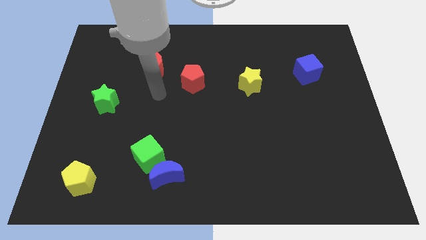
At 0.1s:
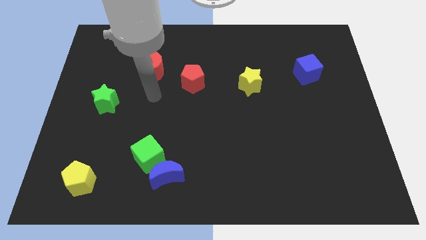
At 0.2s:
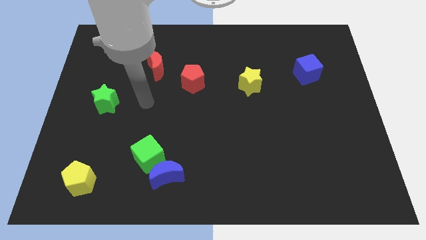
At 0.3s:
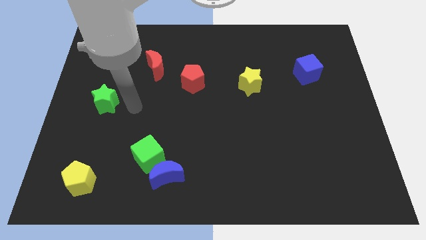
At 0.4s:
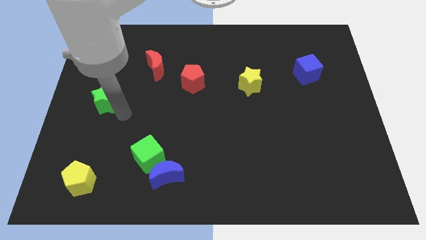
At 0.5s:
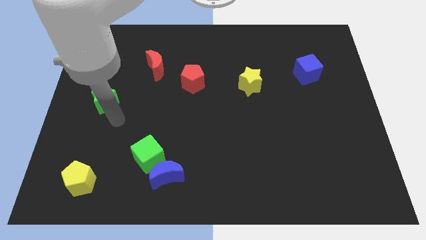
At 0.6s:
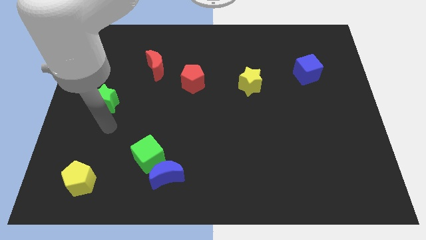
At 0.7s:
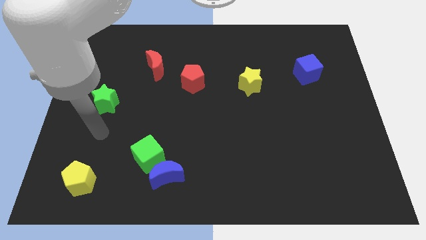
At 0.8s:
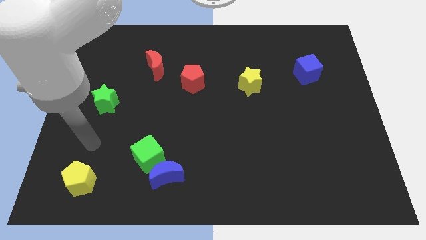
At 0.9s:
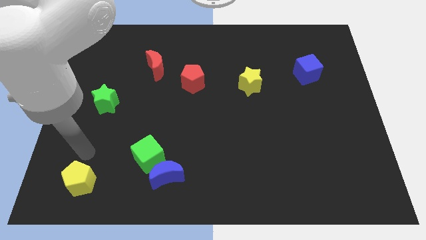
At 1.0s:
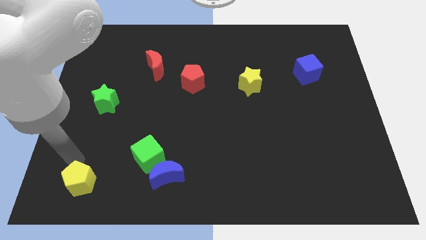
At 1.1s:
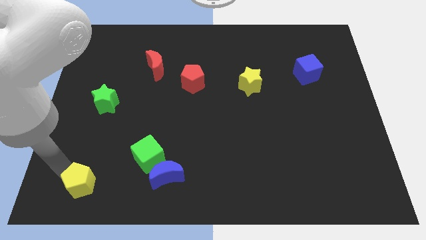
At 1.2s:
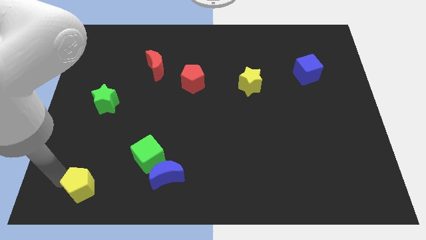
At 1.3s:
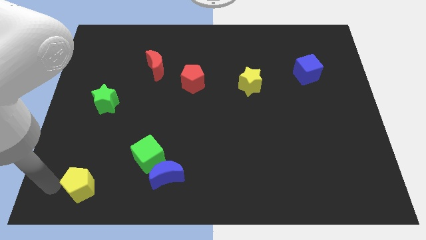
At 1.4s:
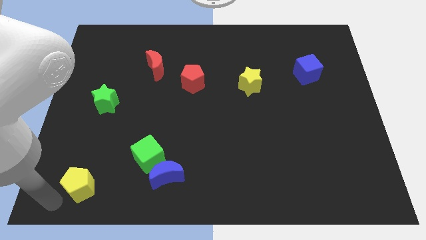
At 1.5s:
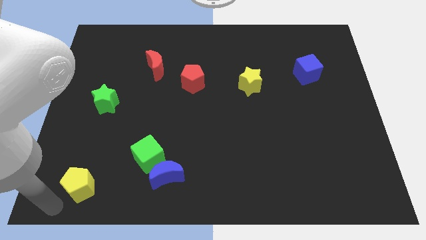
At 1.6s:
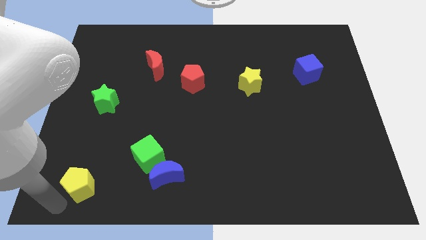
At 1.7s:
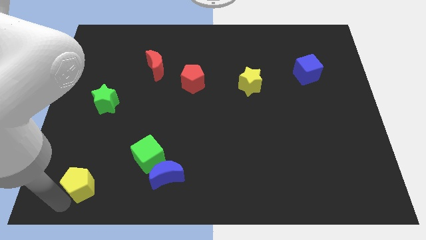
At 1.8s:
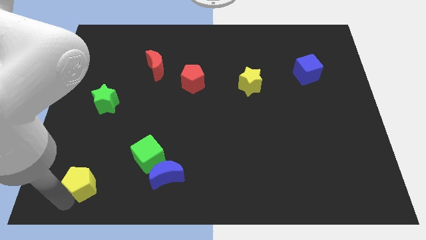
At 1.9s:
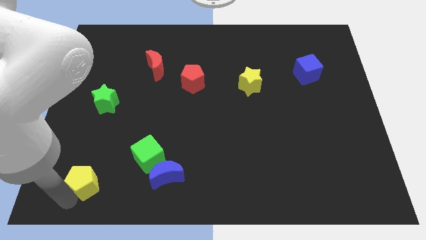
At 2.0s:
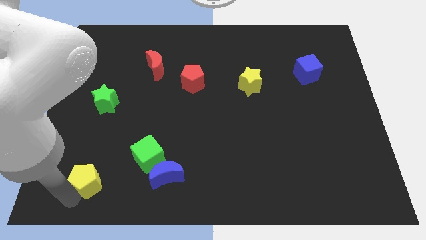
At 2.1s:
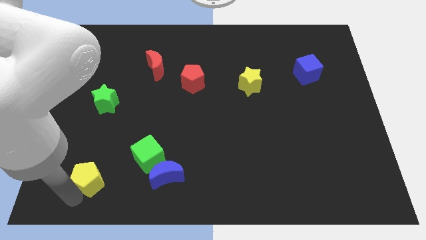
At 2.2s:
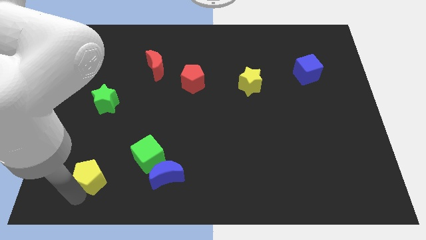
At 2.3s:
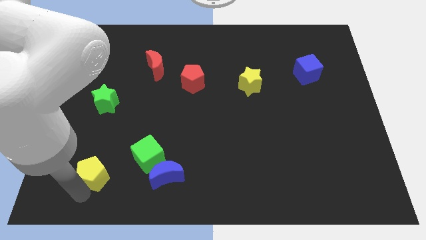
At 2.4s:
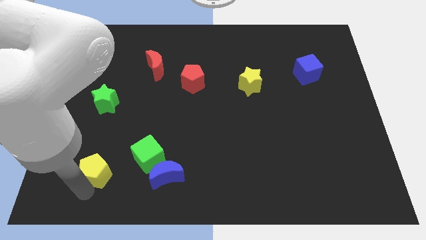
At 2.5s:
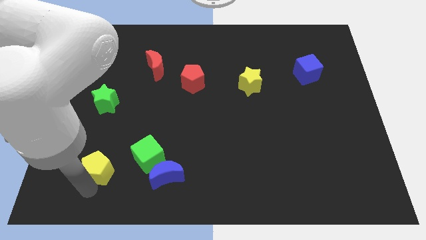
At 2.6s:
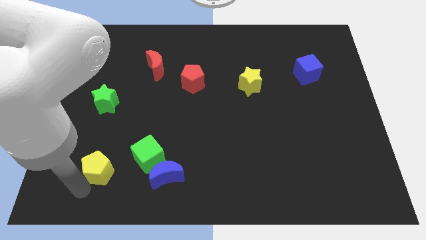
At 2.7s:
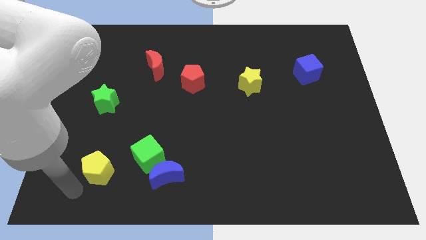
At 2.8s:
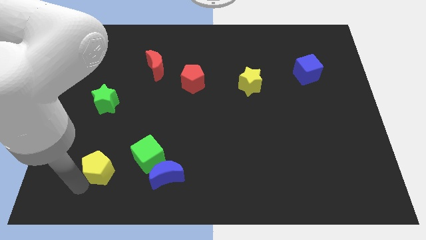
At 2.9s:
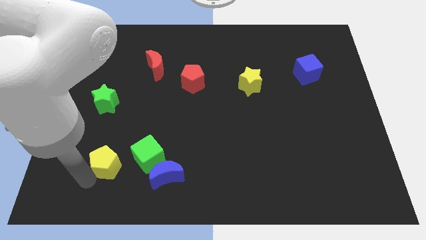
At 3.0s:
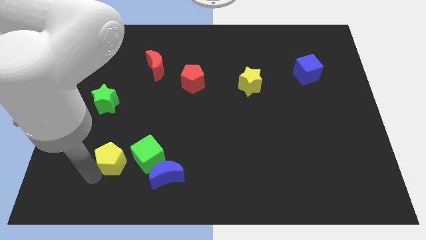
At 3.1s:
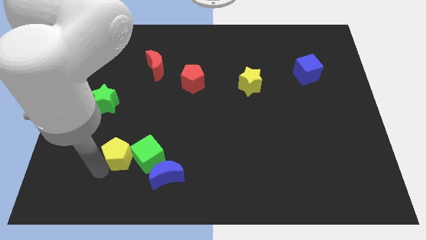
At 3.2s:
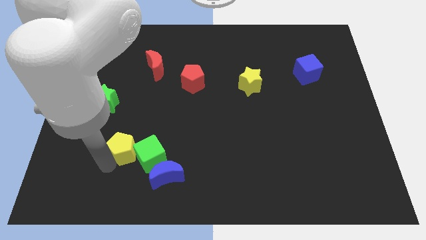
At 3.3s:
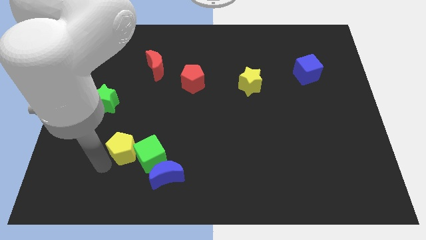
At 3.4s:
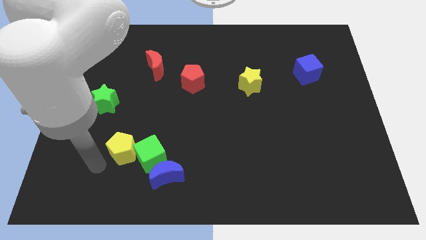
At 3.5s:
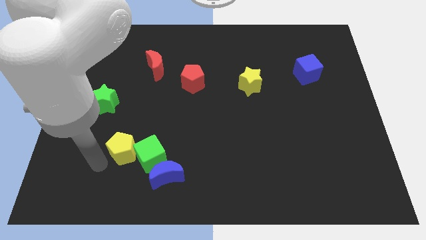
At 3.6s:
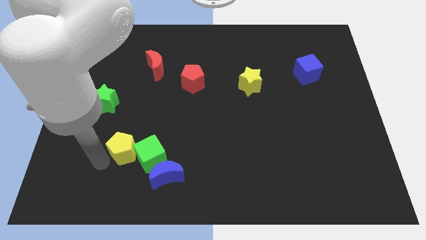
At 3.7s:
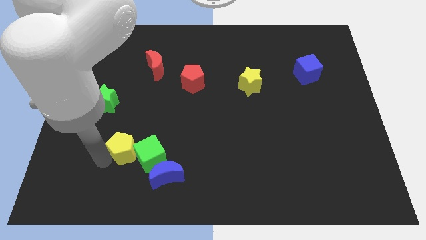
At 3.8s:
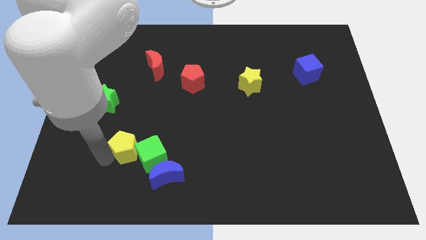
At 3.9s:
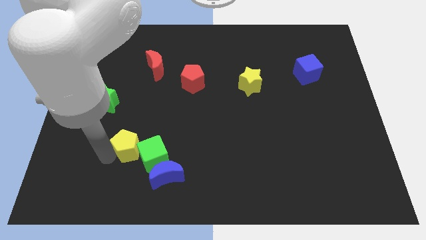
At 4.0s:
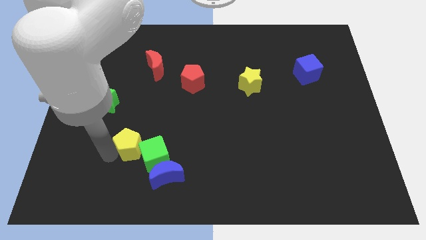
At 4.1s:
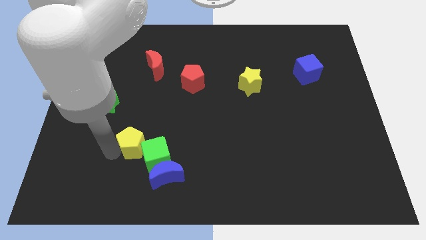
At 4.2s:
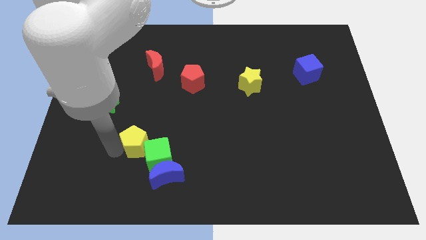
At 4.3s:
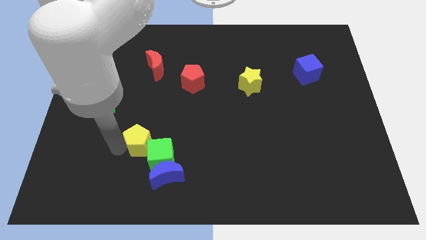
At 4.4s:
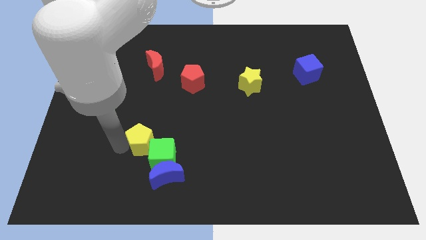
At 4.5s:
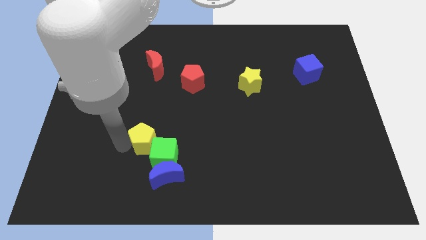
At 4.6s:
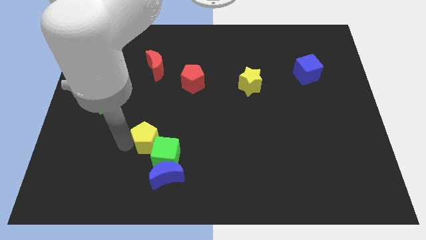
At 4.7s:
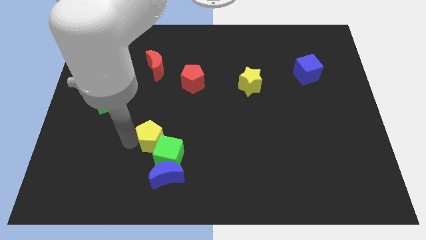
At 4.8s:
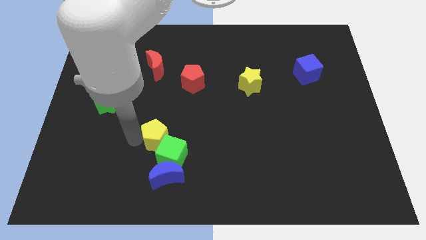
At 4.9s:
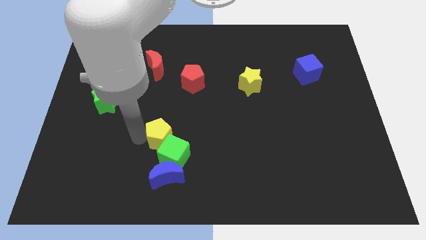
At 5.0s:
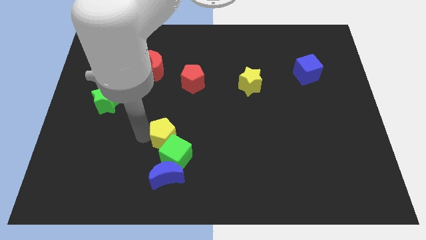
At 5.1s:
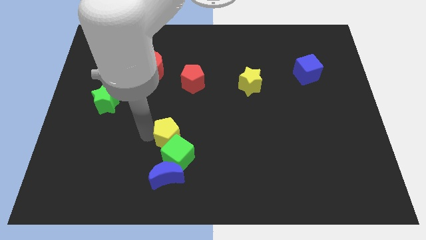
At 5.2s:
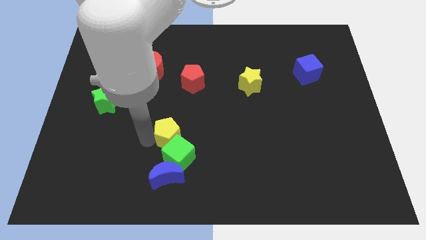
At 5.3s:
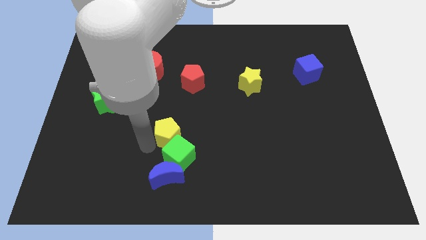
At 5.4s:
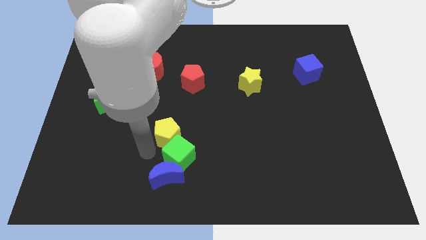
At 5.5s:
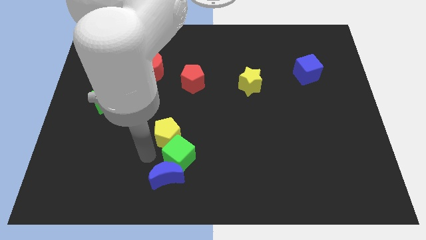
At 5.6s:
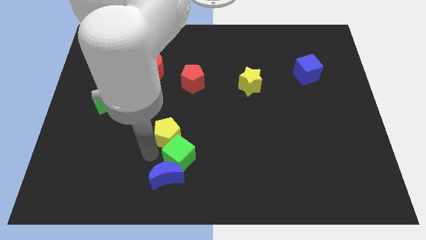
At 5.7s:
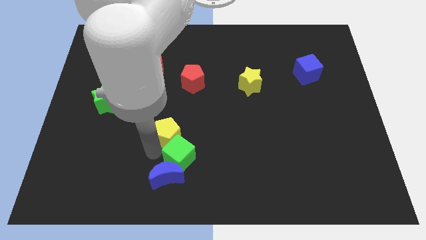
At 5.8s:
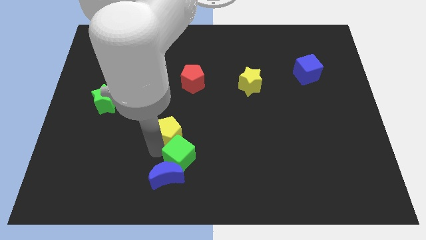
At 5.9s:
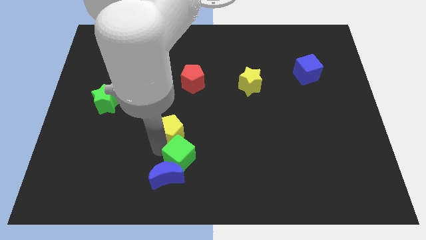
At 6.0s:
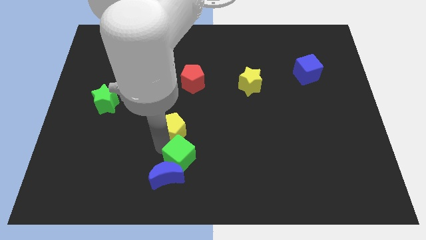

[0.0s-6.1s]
move the yellow pentagon to the bottom of the red pentagon

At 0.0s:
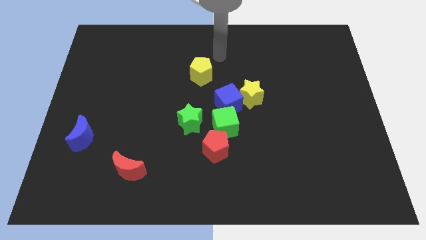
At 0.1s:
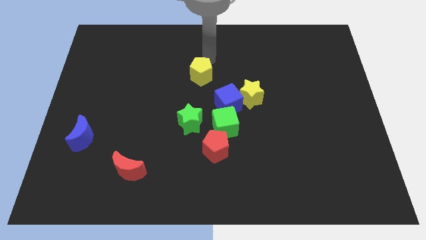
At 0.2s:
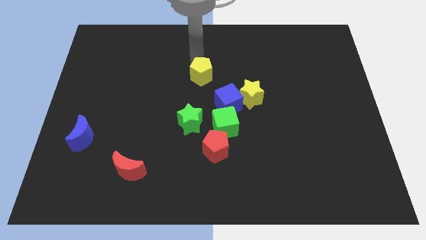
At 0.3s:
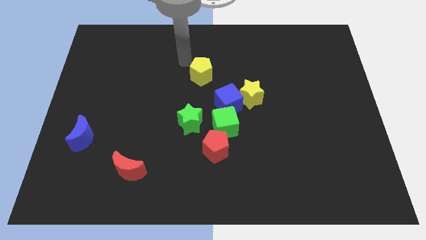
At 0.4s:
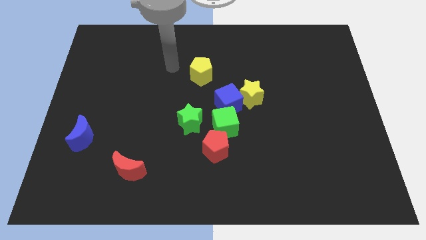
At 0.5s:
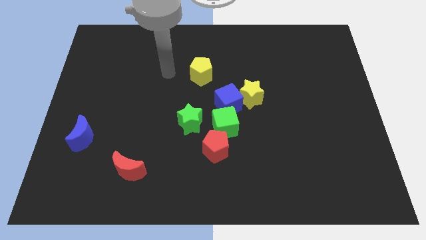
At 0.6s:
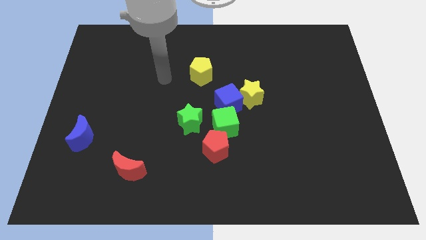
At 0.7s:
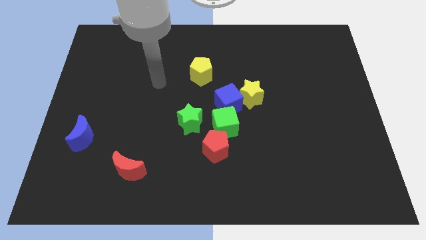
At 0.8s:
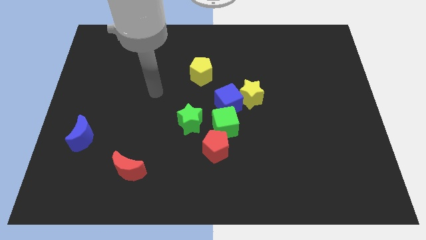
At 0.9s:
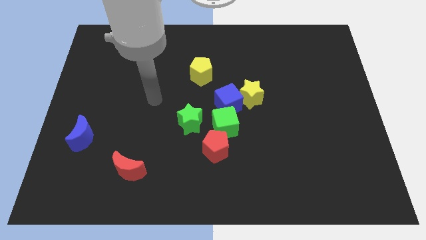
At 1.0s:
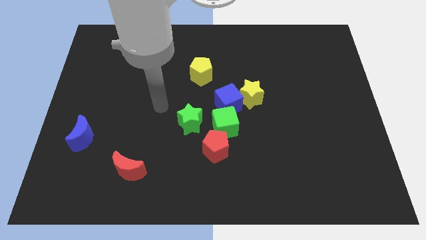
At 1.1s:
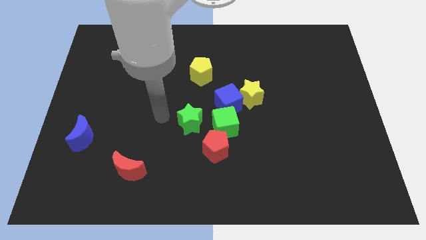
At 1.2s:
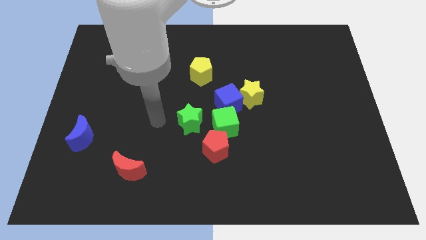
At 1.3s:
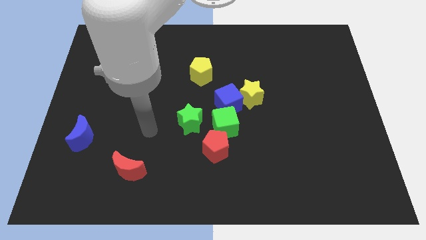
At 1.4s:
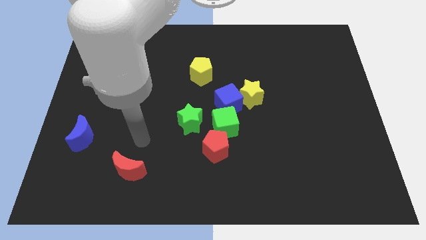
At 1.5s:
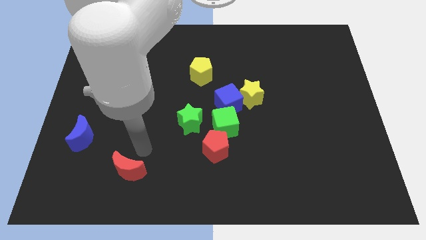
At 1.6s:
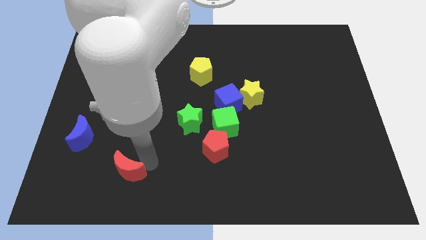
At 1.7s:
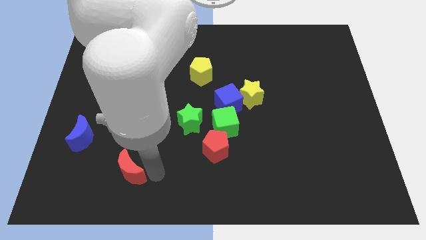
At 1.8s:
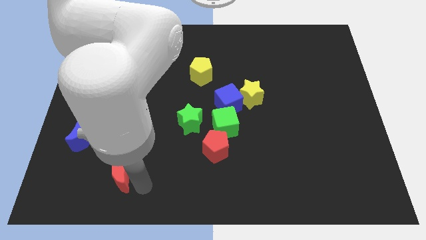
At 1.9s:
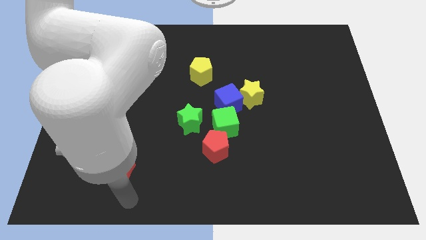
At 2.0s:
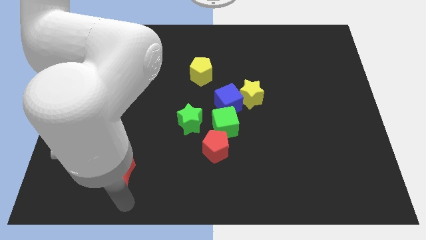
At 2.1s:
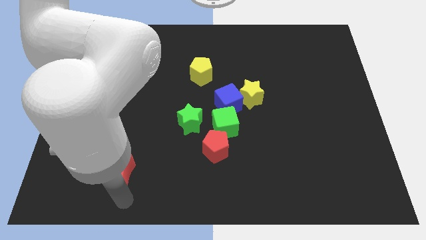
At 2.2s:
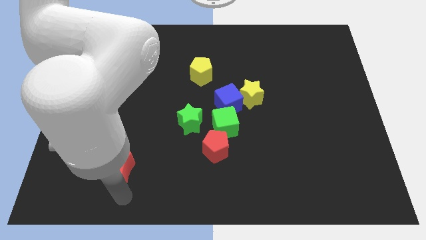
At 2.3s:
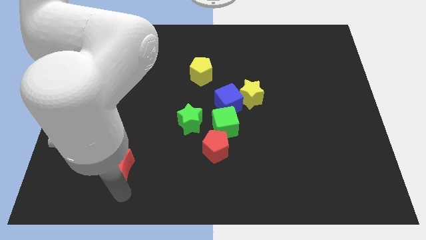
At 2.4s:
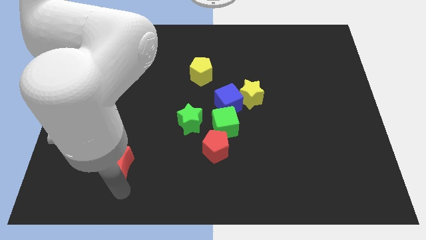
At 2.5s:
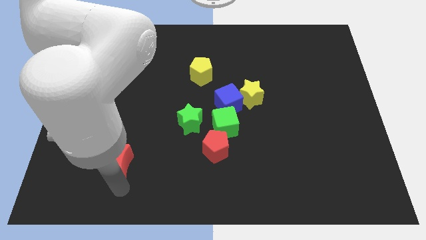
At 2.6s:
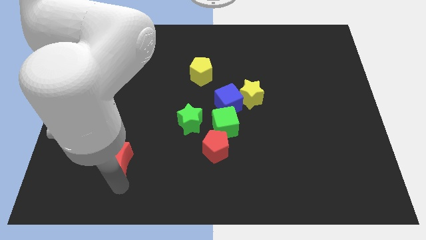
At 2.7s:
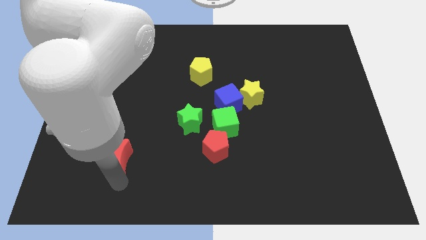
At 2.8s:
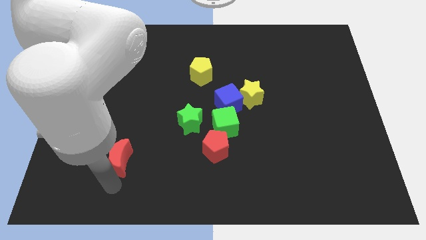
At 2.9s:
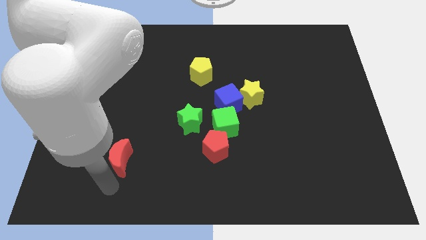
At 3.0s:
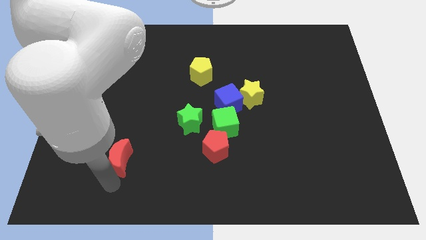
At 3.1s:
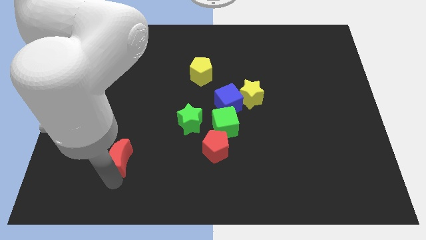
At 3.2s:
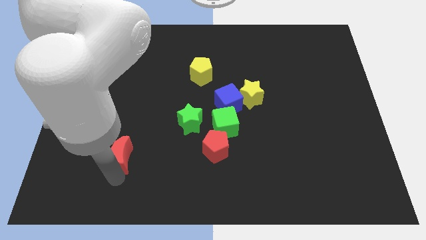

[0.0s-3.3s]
slide the red moon right of the blue moon
